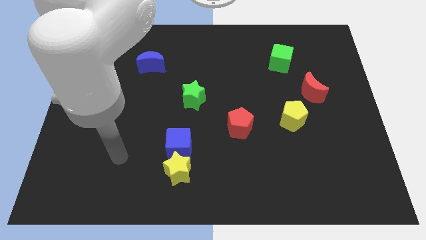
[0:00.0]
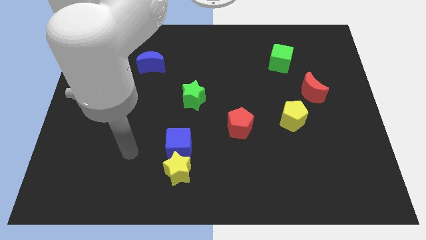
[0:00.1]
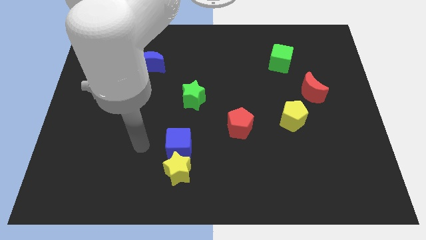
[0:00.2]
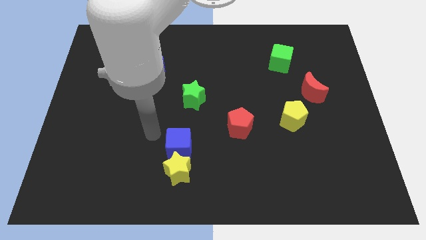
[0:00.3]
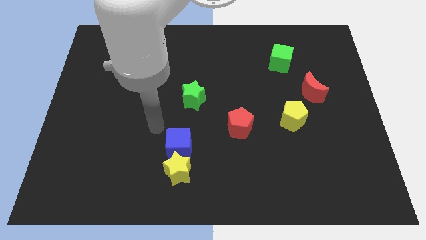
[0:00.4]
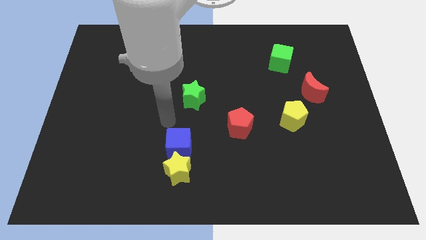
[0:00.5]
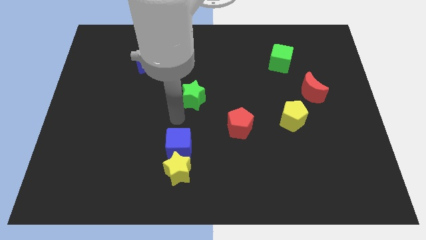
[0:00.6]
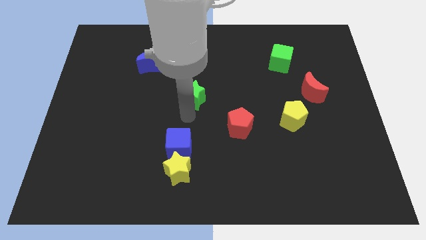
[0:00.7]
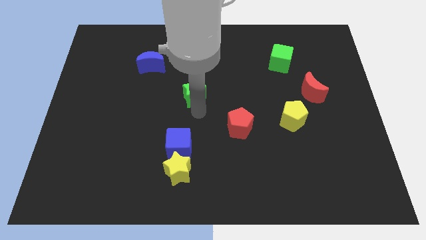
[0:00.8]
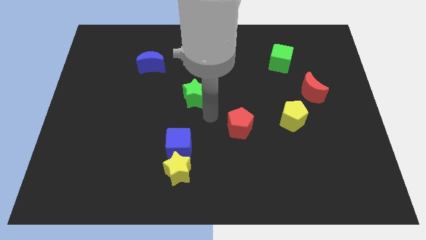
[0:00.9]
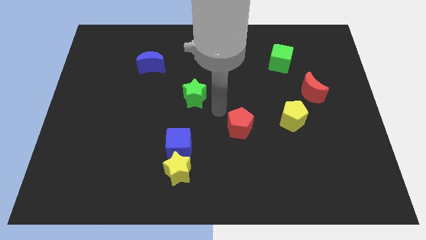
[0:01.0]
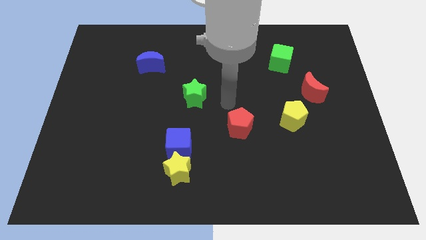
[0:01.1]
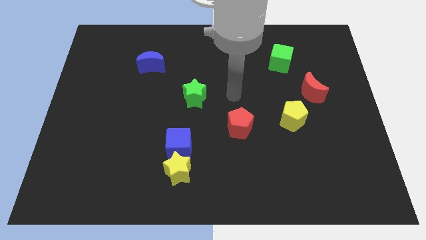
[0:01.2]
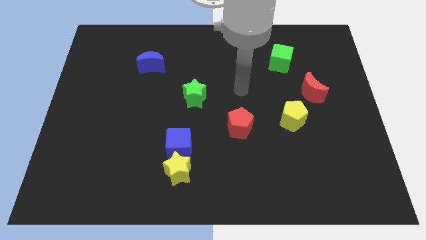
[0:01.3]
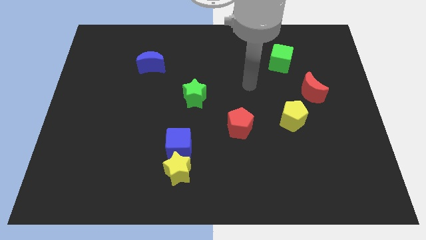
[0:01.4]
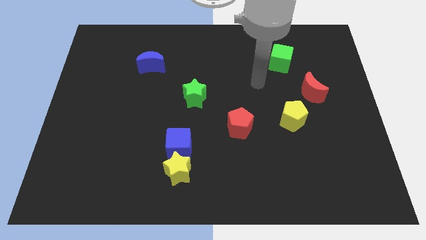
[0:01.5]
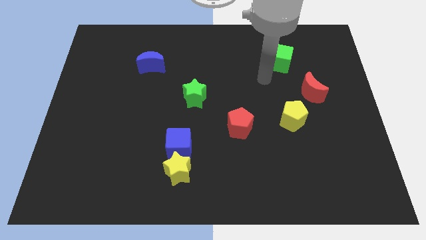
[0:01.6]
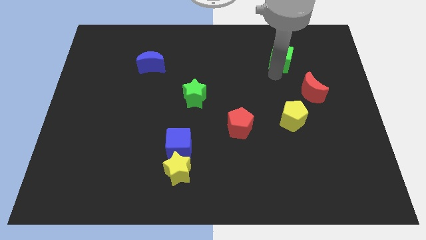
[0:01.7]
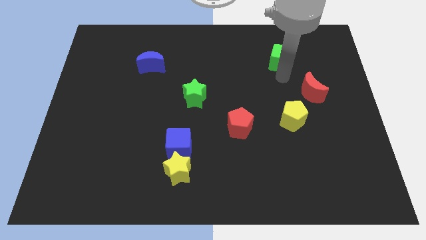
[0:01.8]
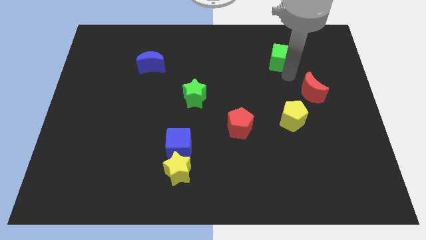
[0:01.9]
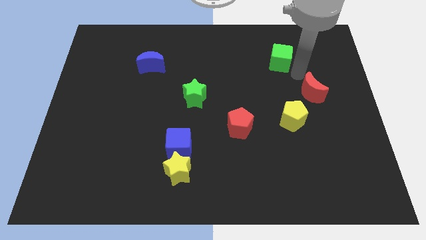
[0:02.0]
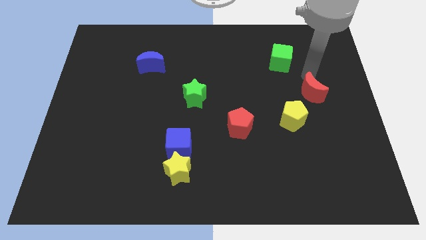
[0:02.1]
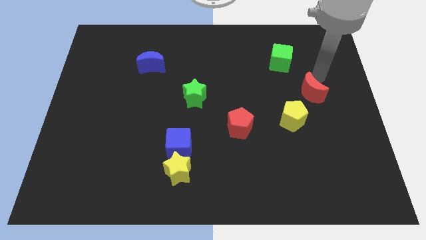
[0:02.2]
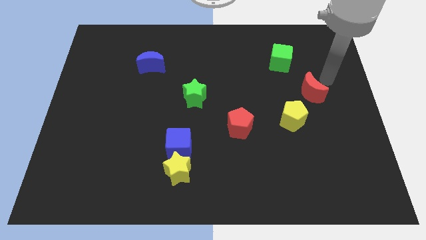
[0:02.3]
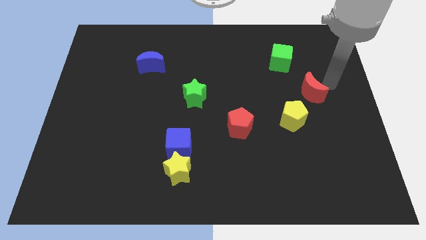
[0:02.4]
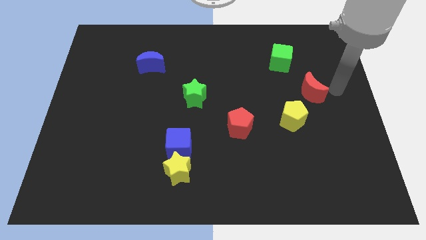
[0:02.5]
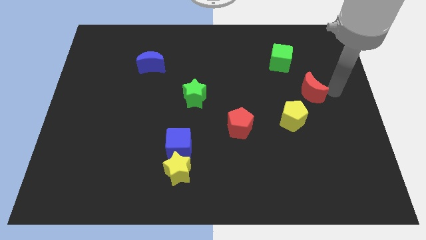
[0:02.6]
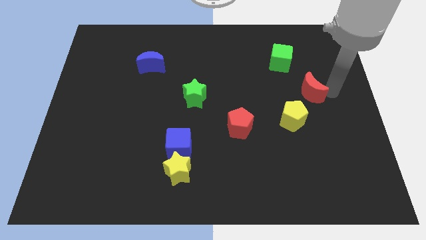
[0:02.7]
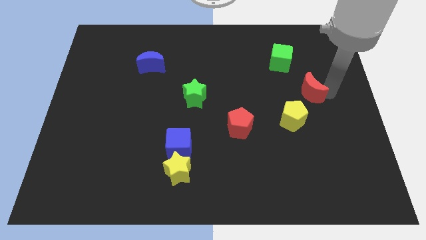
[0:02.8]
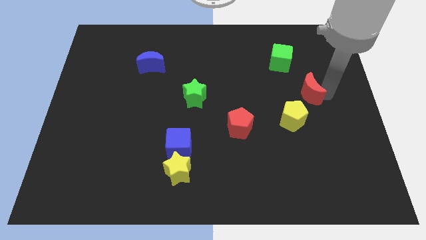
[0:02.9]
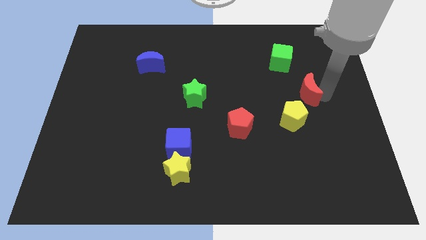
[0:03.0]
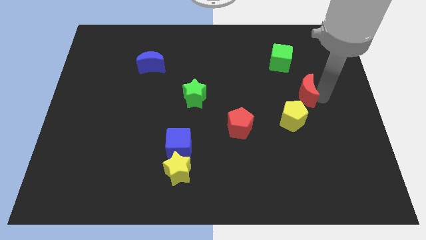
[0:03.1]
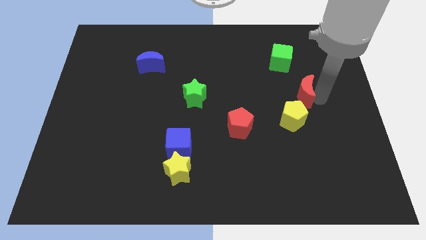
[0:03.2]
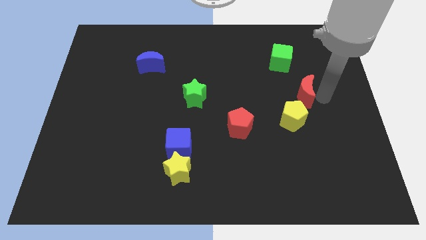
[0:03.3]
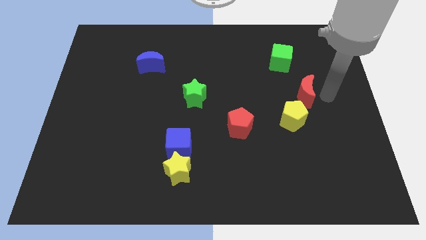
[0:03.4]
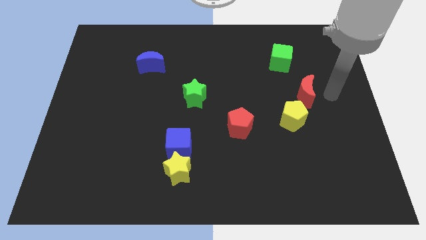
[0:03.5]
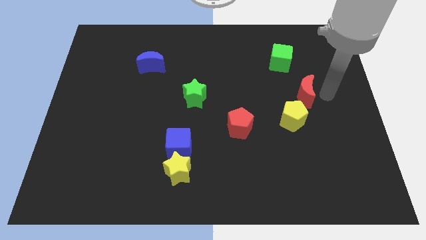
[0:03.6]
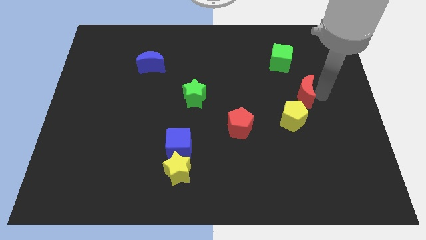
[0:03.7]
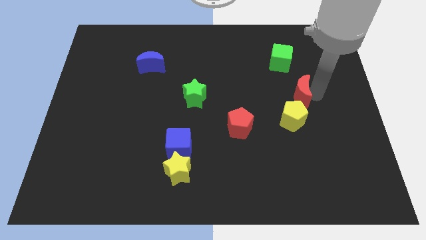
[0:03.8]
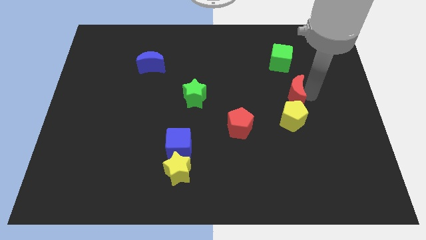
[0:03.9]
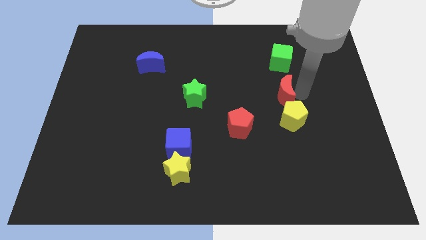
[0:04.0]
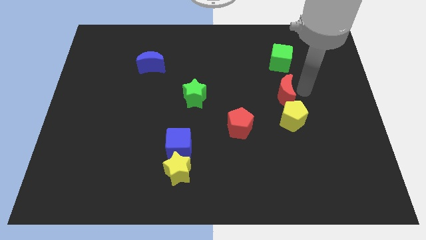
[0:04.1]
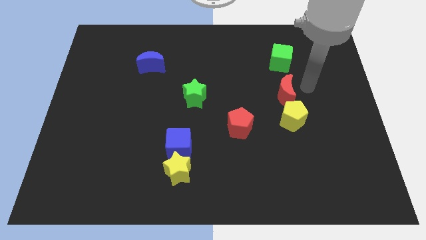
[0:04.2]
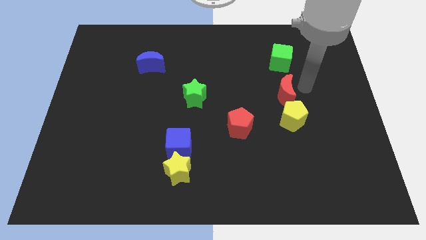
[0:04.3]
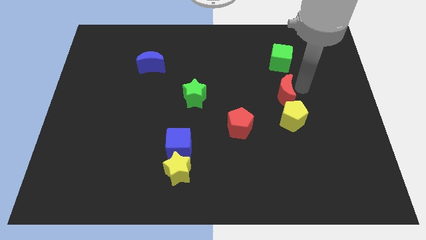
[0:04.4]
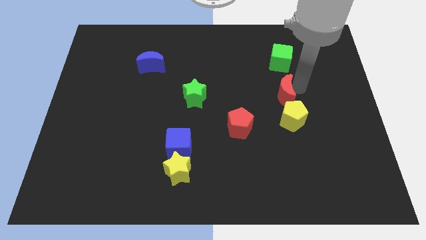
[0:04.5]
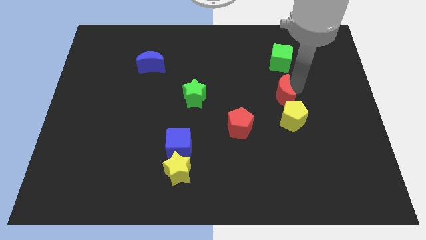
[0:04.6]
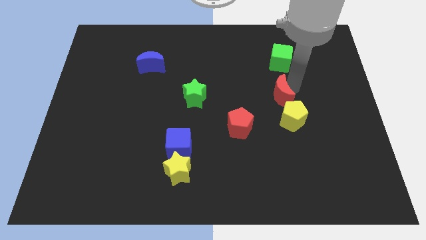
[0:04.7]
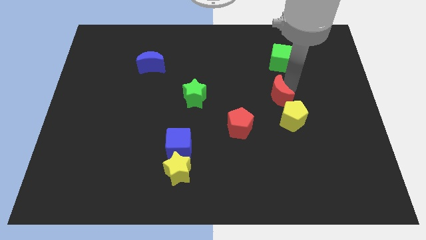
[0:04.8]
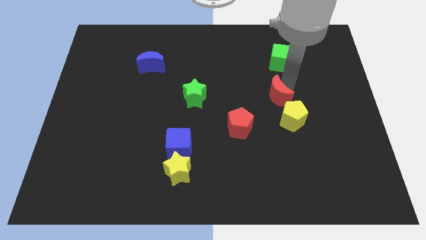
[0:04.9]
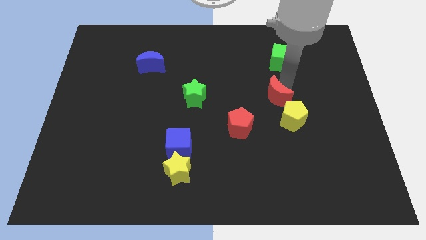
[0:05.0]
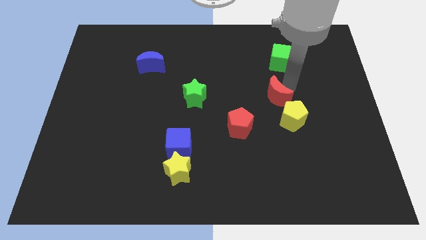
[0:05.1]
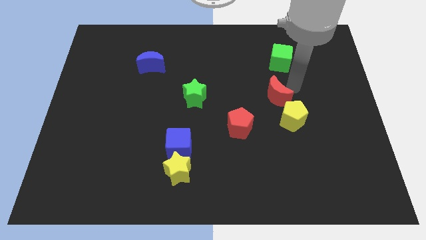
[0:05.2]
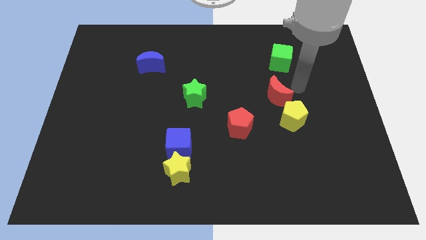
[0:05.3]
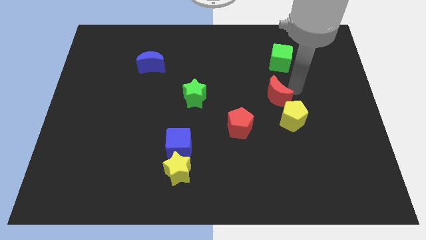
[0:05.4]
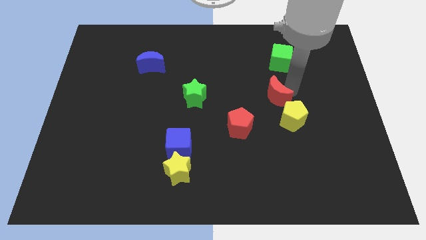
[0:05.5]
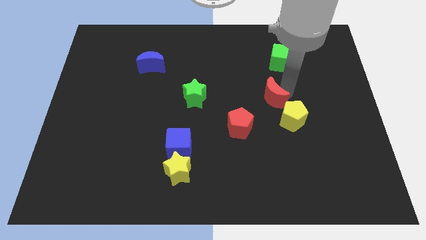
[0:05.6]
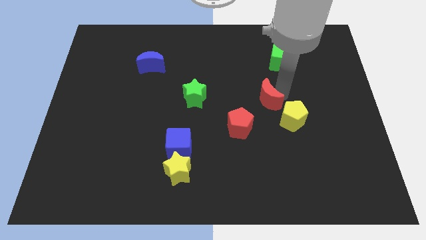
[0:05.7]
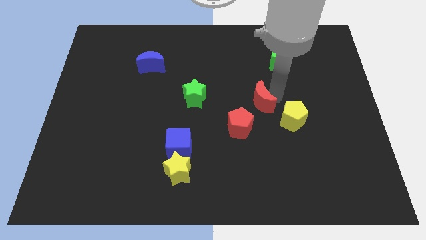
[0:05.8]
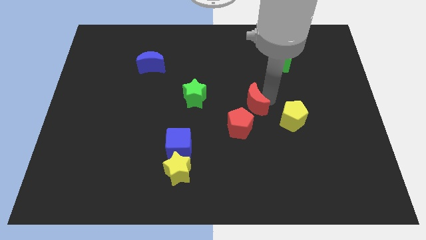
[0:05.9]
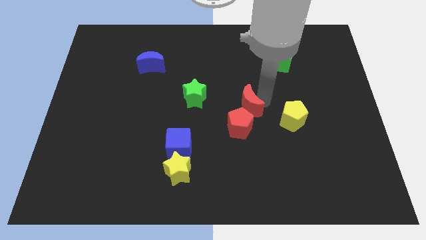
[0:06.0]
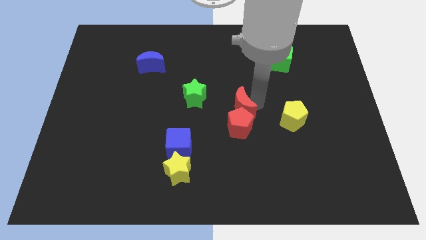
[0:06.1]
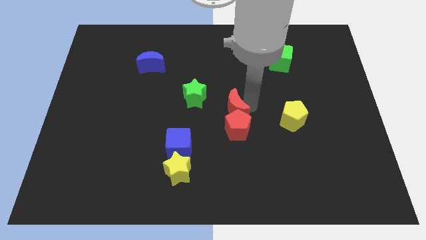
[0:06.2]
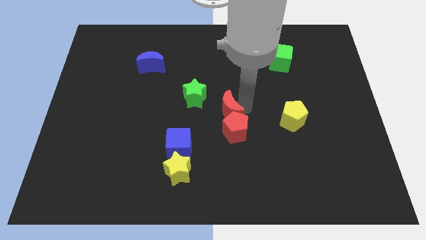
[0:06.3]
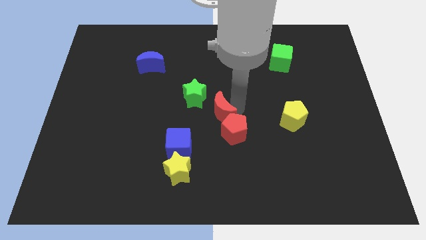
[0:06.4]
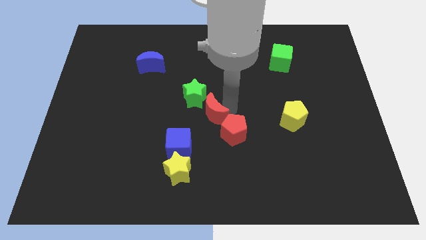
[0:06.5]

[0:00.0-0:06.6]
put the red moon to the top right side of the blue cube

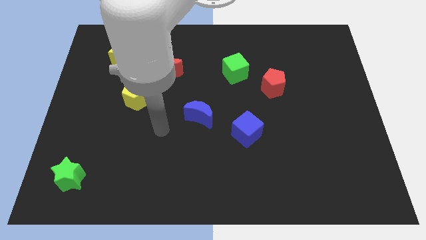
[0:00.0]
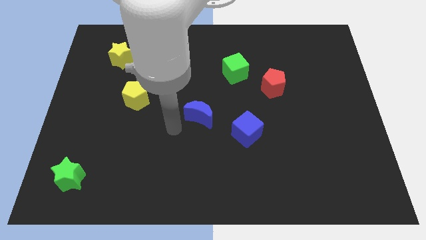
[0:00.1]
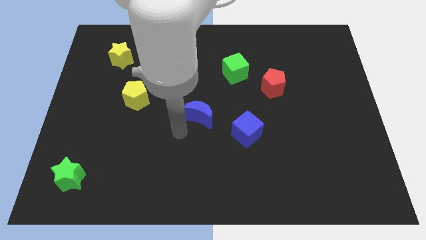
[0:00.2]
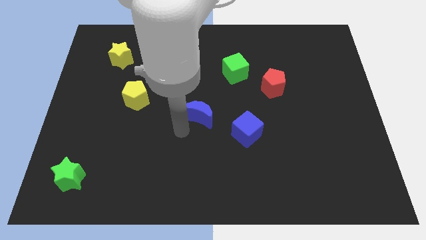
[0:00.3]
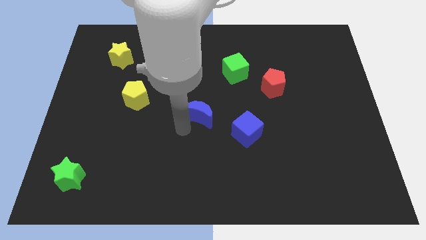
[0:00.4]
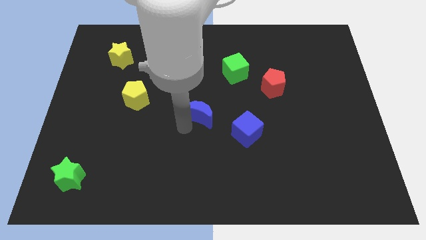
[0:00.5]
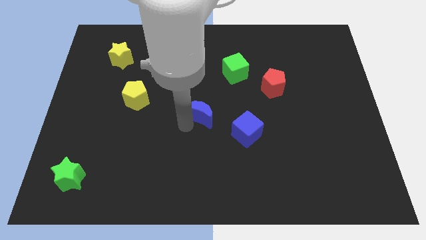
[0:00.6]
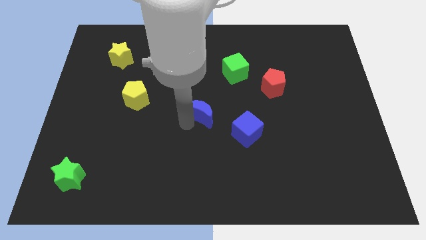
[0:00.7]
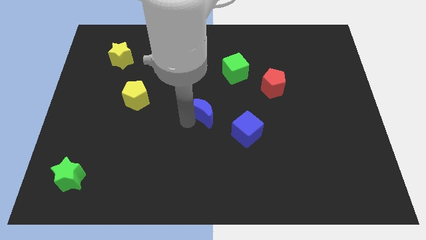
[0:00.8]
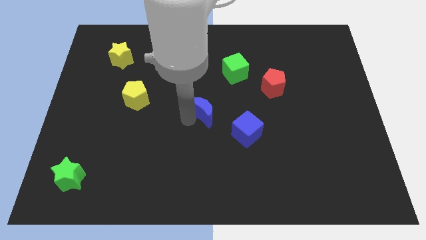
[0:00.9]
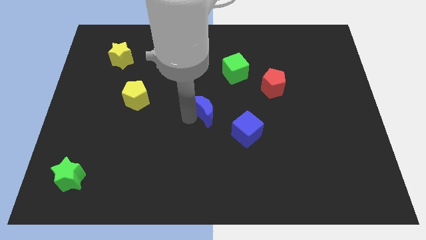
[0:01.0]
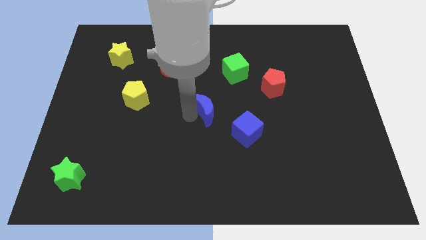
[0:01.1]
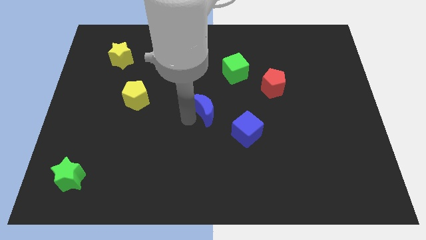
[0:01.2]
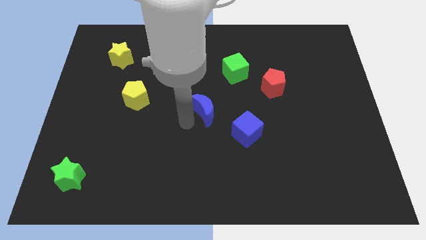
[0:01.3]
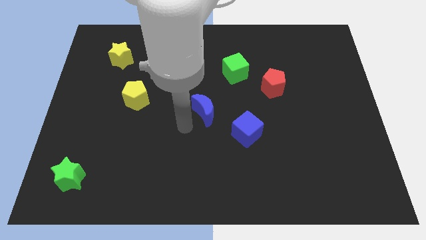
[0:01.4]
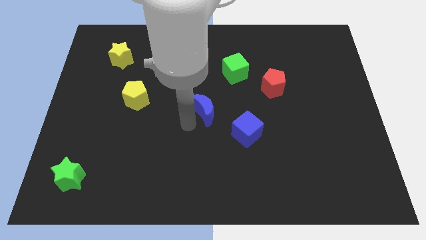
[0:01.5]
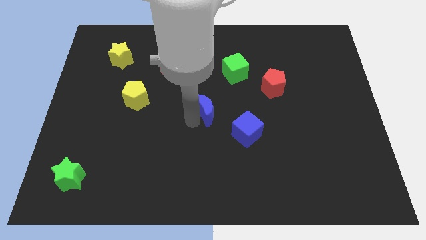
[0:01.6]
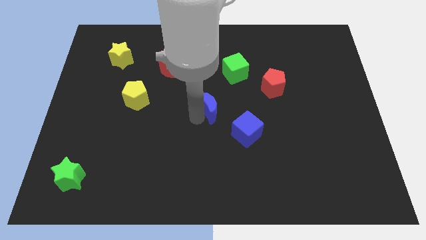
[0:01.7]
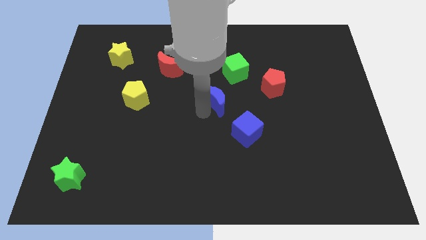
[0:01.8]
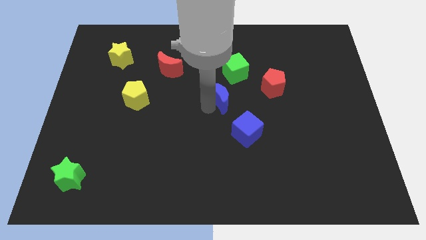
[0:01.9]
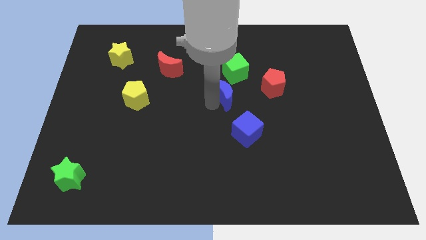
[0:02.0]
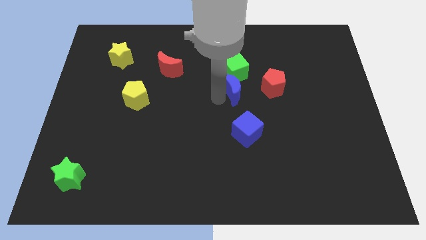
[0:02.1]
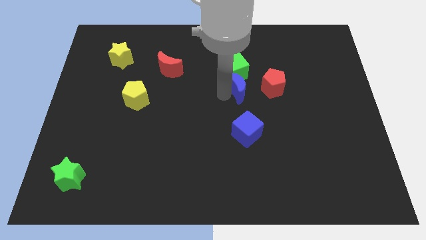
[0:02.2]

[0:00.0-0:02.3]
put the blue moon diagonally down and to the right of the green cube
